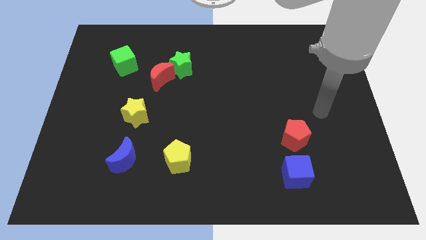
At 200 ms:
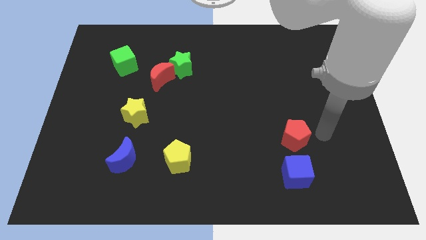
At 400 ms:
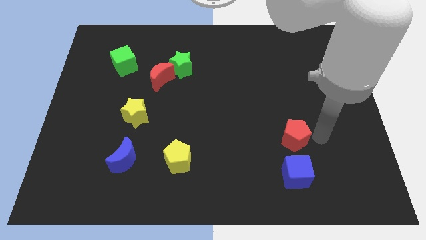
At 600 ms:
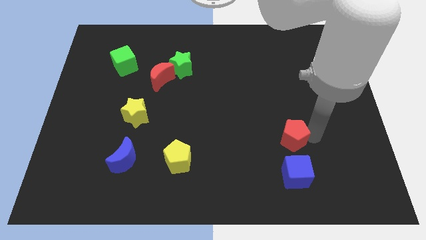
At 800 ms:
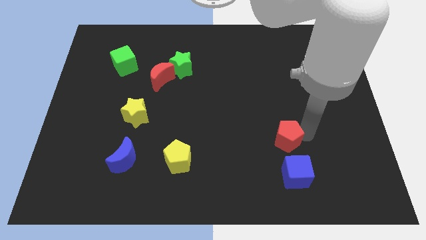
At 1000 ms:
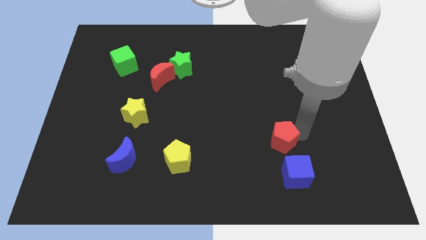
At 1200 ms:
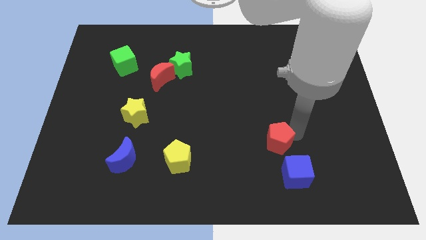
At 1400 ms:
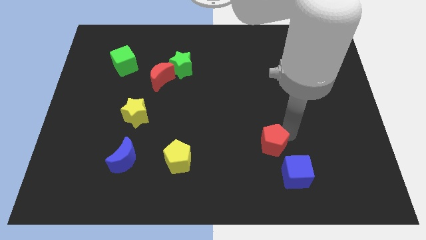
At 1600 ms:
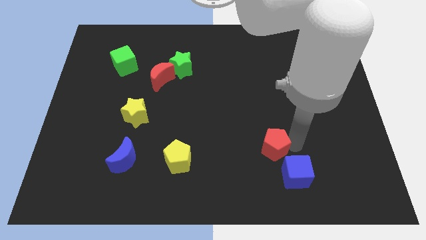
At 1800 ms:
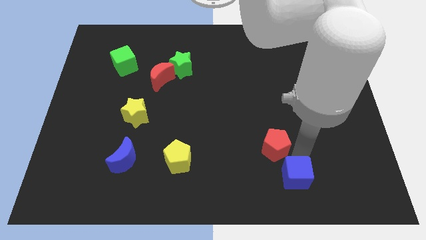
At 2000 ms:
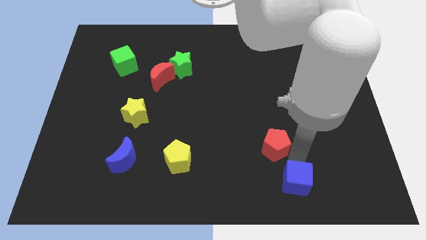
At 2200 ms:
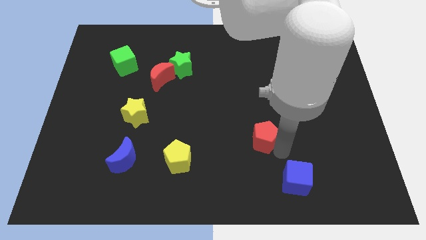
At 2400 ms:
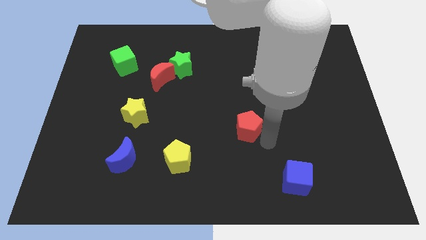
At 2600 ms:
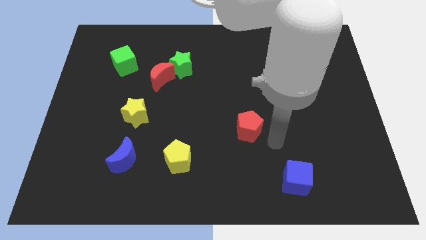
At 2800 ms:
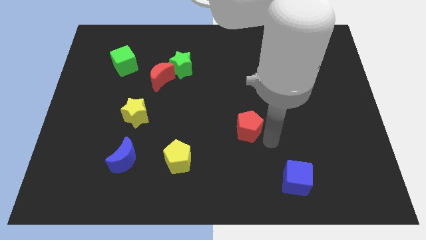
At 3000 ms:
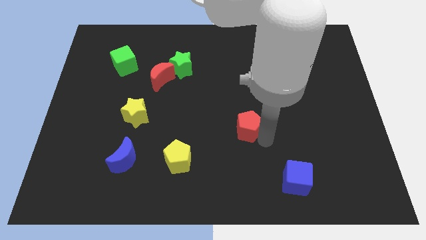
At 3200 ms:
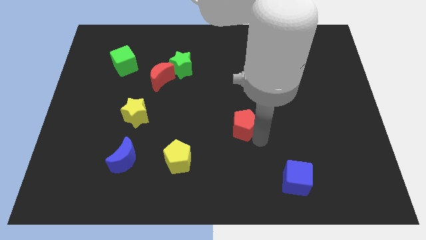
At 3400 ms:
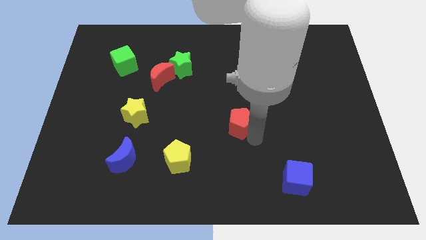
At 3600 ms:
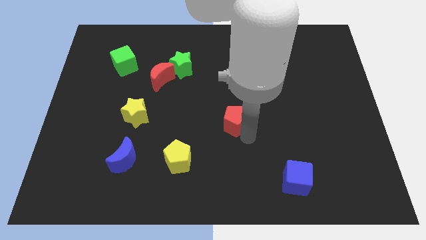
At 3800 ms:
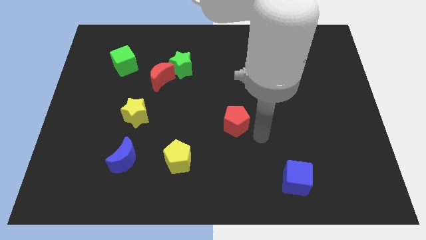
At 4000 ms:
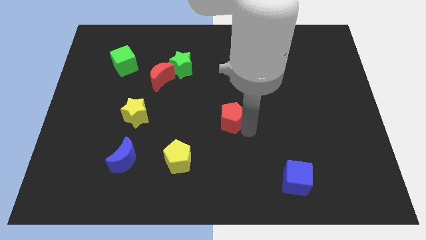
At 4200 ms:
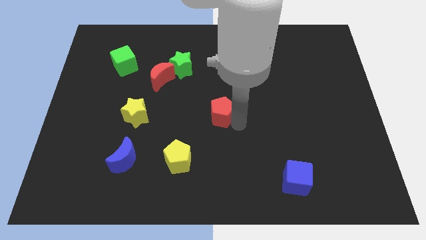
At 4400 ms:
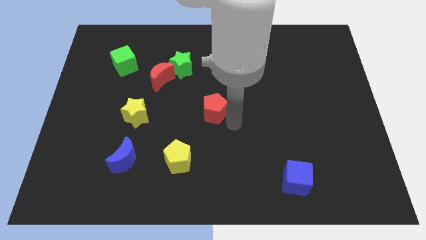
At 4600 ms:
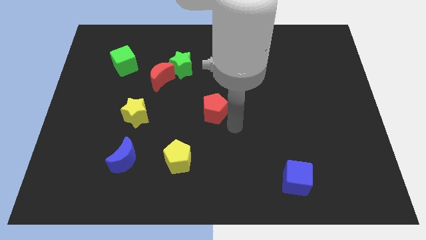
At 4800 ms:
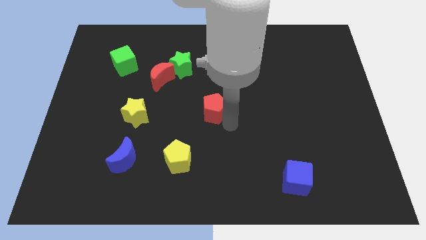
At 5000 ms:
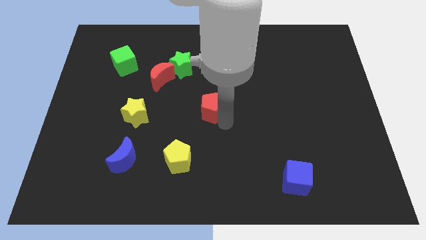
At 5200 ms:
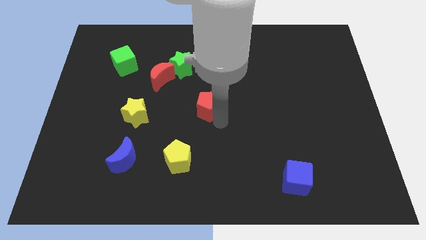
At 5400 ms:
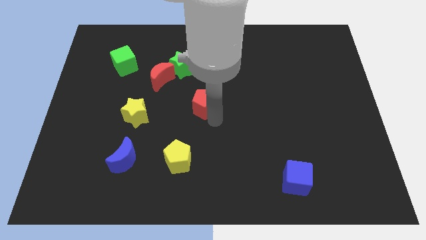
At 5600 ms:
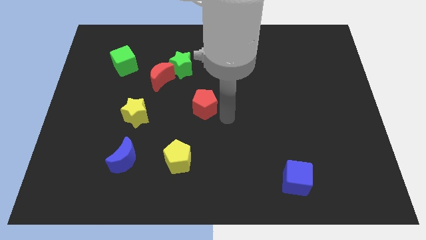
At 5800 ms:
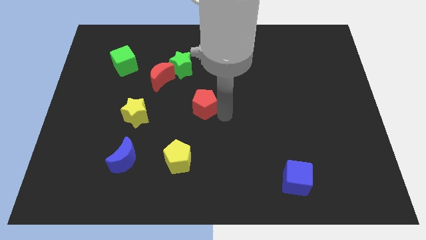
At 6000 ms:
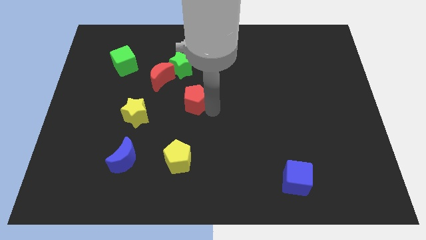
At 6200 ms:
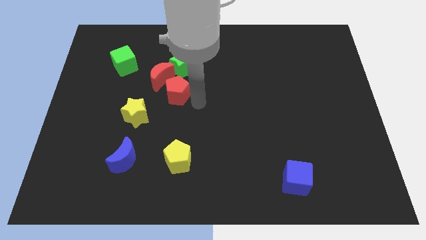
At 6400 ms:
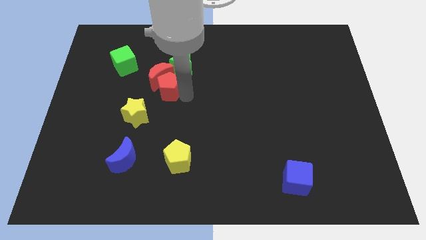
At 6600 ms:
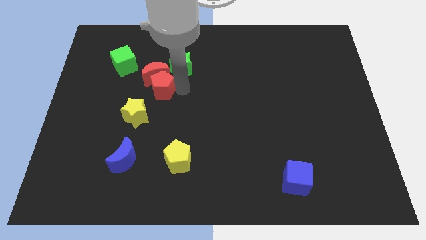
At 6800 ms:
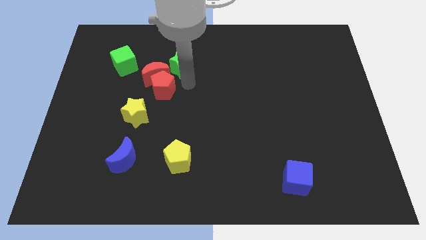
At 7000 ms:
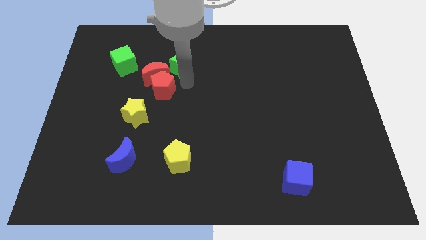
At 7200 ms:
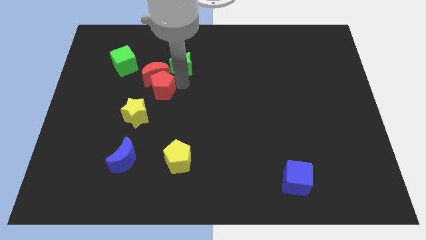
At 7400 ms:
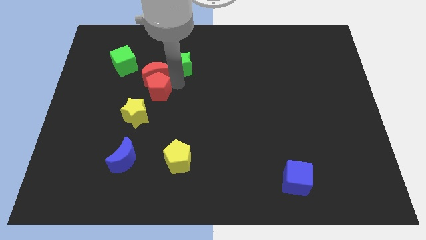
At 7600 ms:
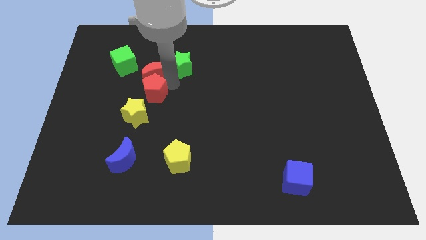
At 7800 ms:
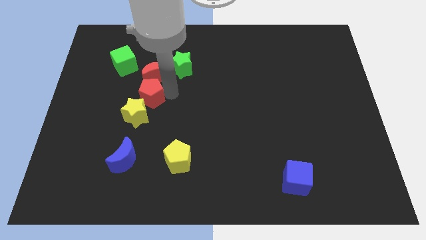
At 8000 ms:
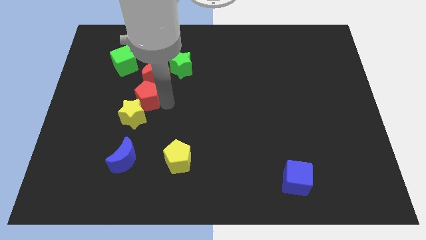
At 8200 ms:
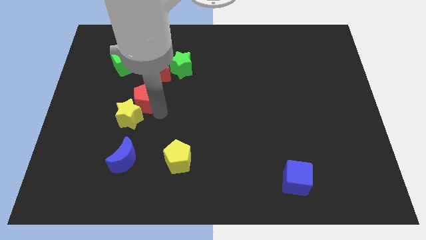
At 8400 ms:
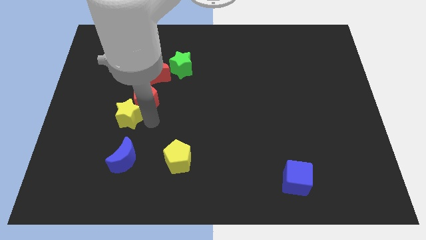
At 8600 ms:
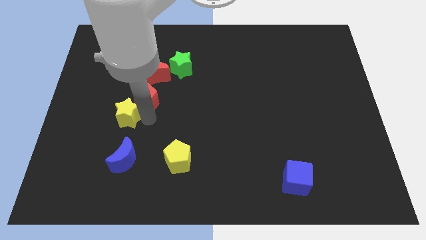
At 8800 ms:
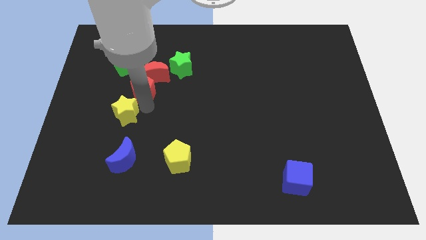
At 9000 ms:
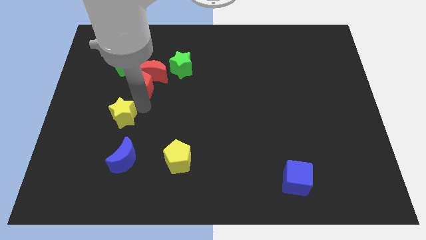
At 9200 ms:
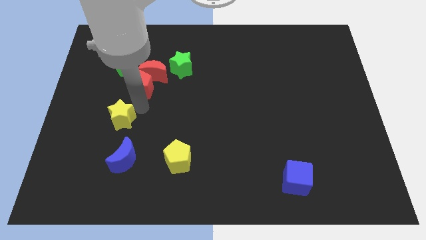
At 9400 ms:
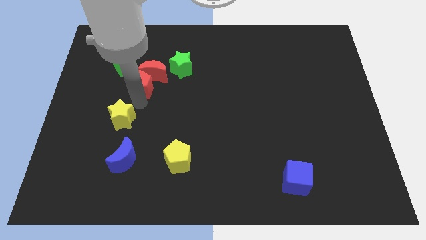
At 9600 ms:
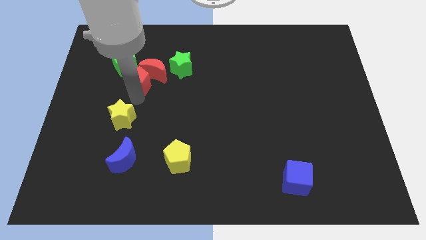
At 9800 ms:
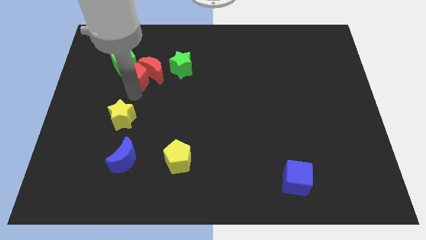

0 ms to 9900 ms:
move the red pentagon to the left of the green star

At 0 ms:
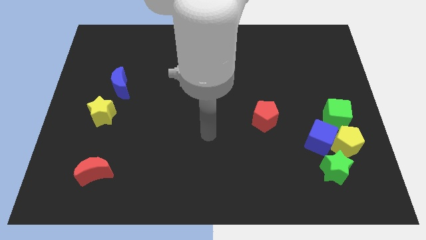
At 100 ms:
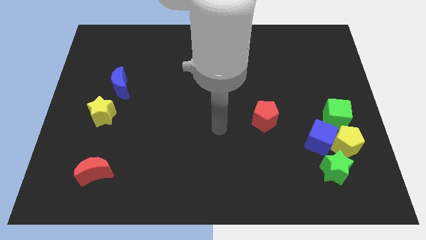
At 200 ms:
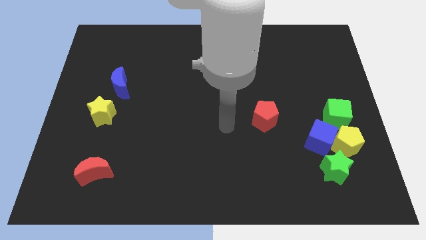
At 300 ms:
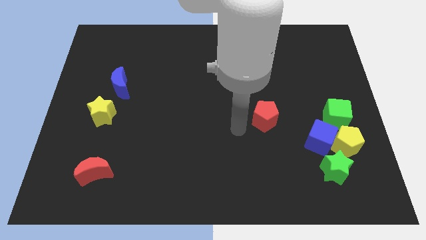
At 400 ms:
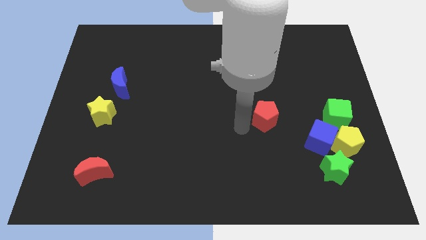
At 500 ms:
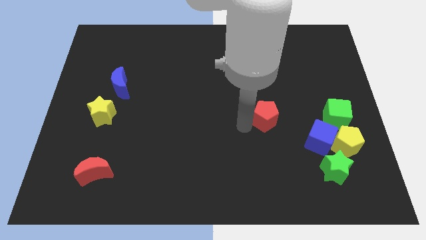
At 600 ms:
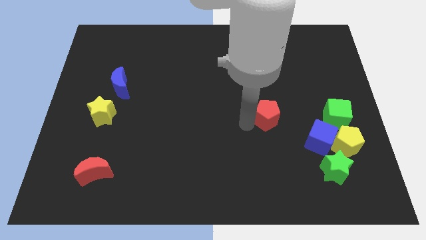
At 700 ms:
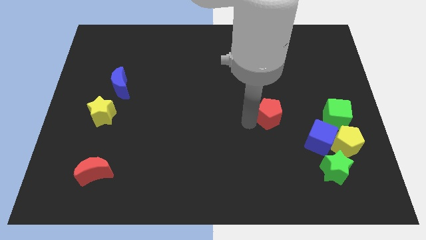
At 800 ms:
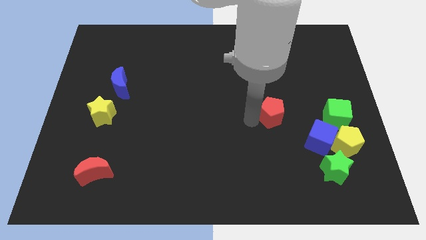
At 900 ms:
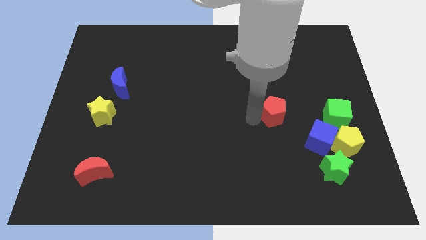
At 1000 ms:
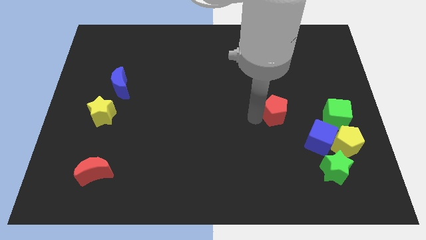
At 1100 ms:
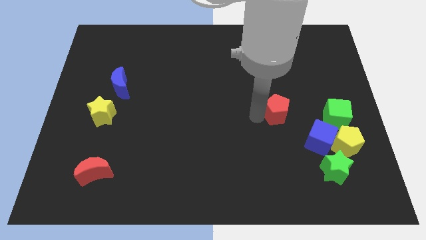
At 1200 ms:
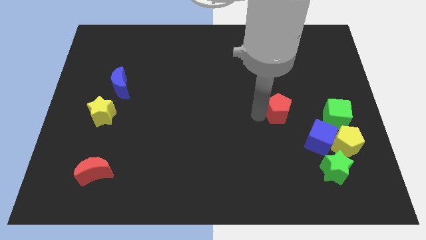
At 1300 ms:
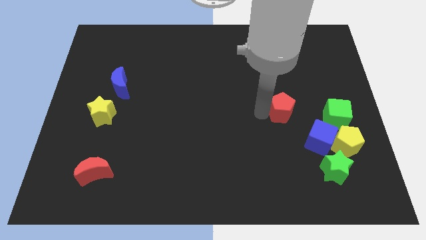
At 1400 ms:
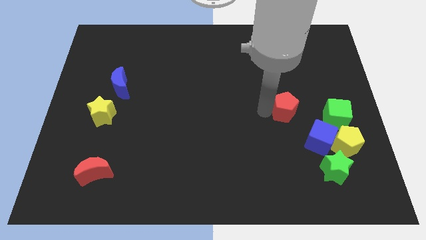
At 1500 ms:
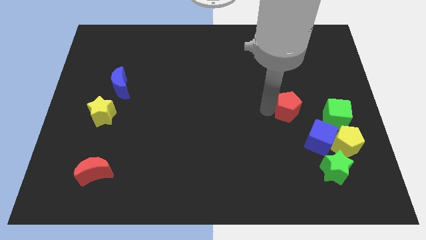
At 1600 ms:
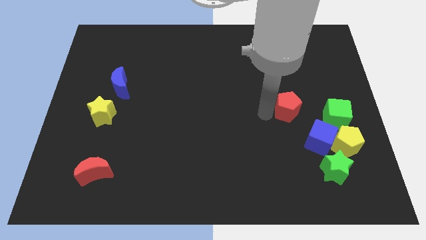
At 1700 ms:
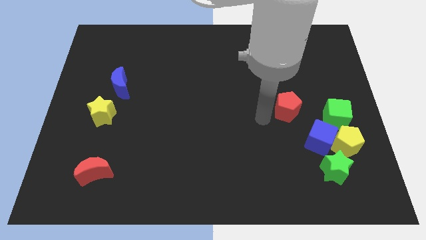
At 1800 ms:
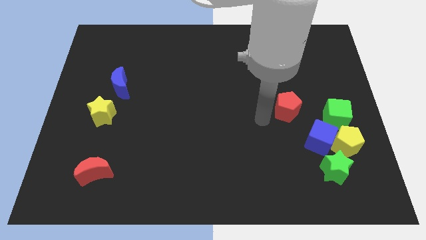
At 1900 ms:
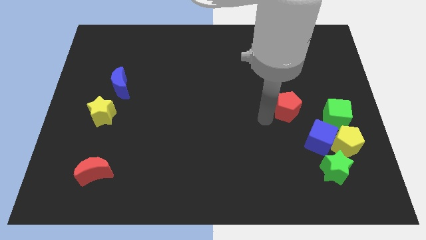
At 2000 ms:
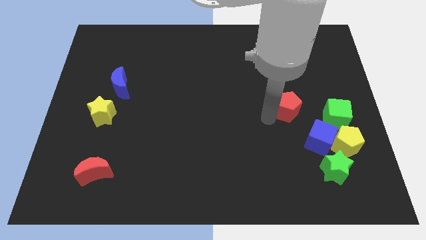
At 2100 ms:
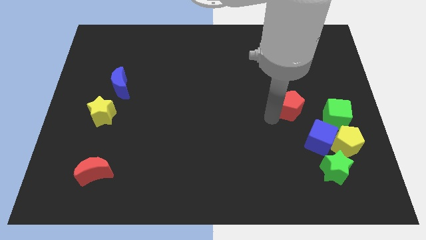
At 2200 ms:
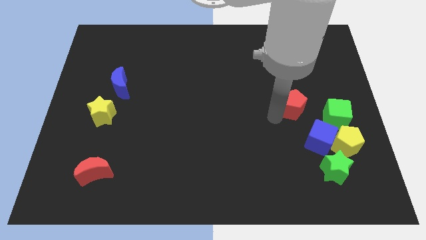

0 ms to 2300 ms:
move the red pentagon to the top left side of the green cube
